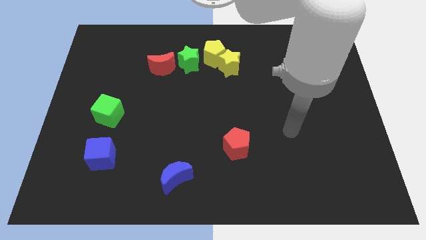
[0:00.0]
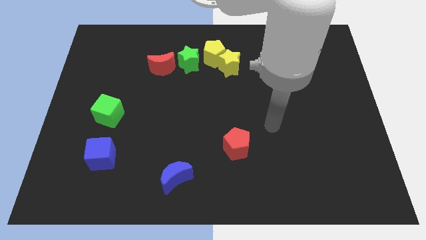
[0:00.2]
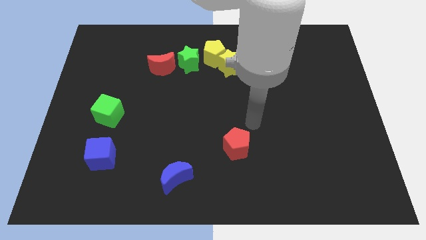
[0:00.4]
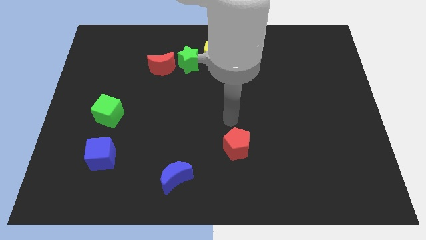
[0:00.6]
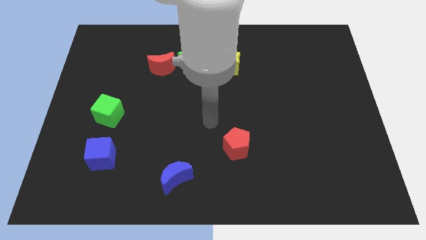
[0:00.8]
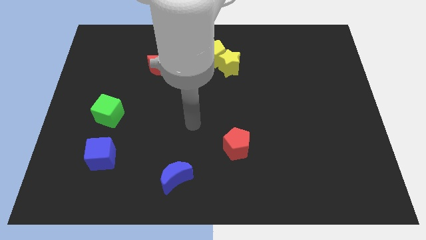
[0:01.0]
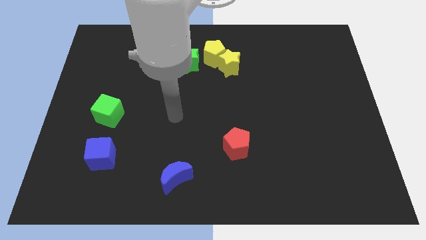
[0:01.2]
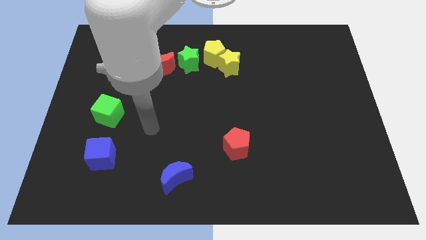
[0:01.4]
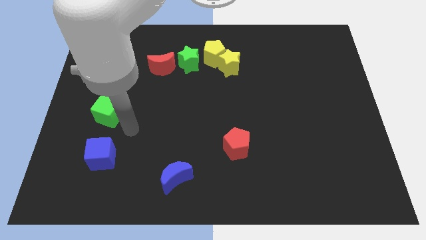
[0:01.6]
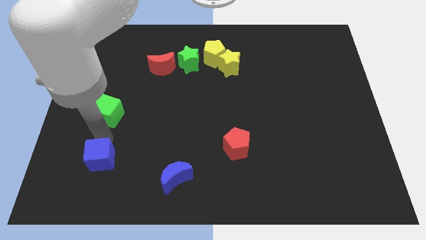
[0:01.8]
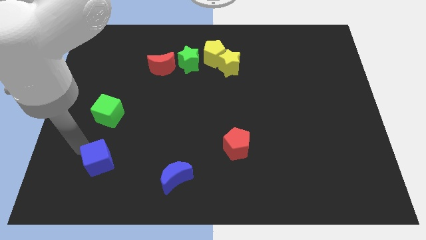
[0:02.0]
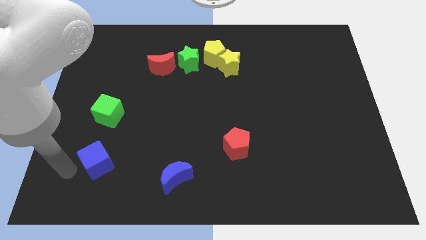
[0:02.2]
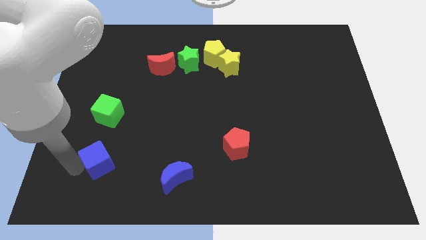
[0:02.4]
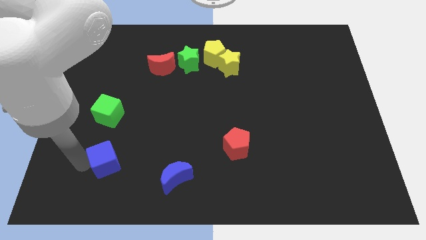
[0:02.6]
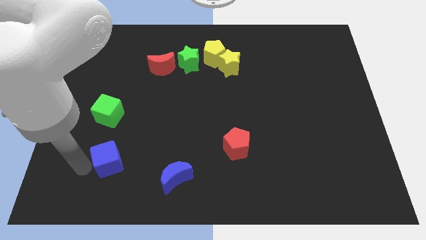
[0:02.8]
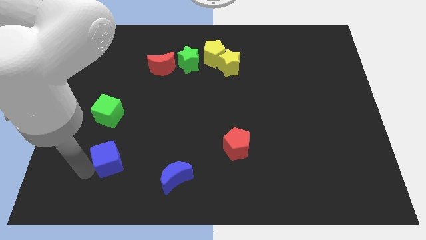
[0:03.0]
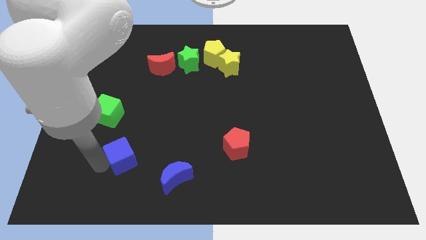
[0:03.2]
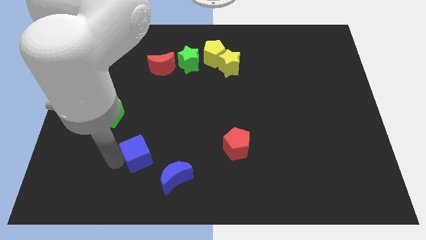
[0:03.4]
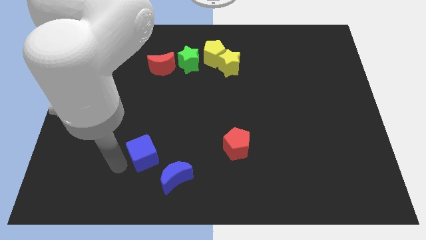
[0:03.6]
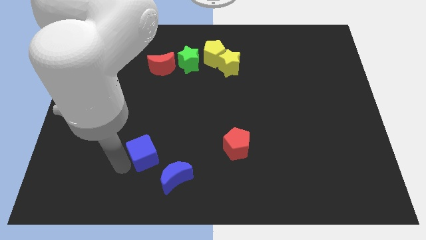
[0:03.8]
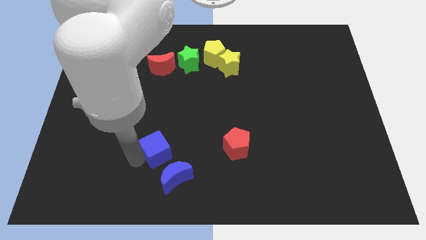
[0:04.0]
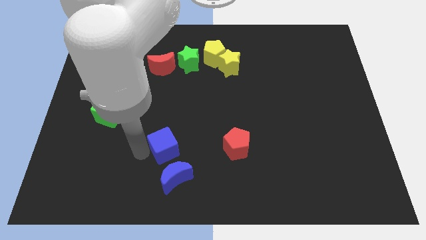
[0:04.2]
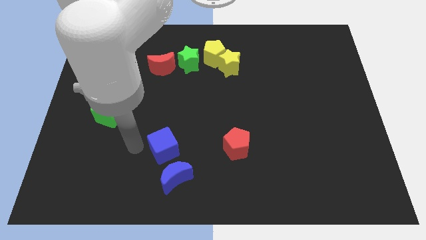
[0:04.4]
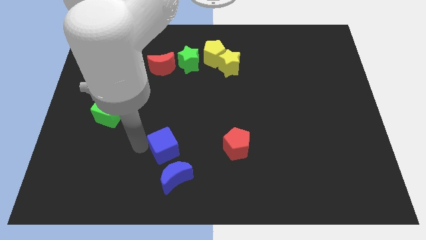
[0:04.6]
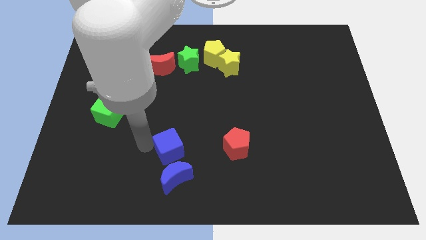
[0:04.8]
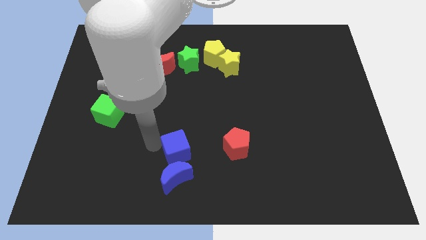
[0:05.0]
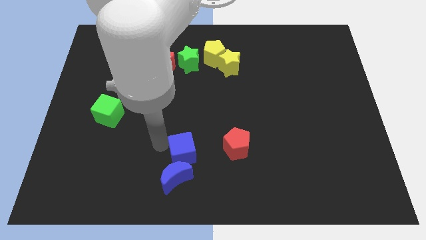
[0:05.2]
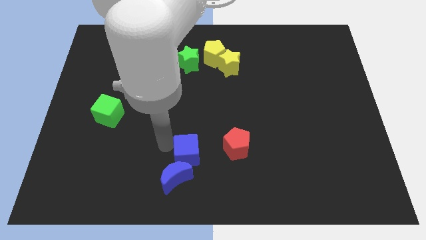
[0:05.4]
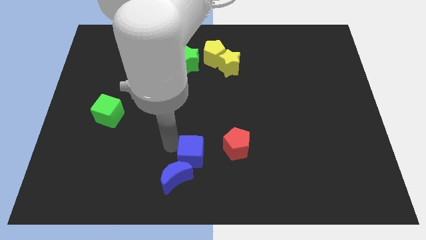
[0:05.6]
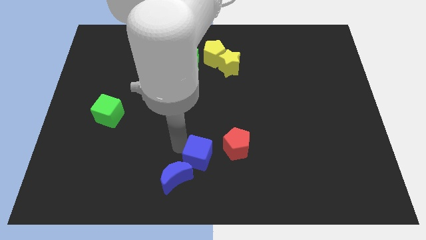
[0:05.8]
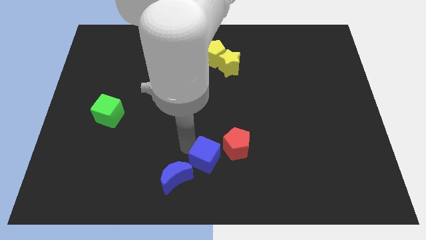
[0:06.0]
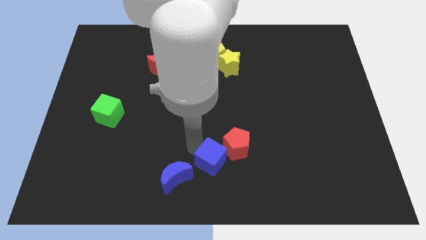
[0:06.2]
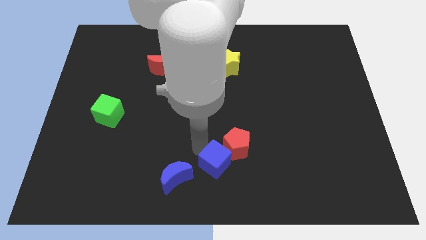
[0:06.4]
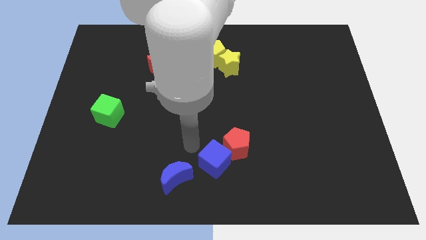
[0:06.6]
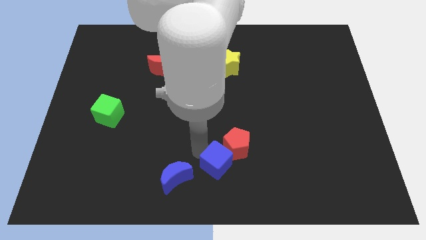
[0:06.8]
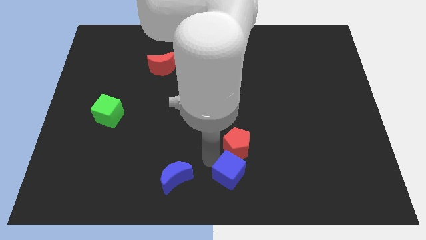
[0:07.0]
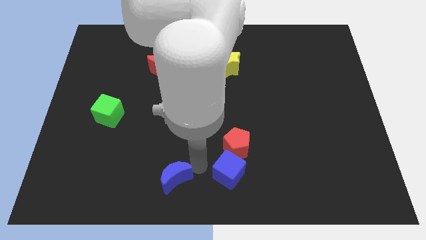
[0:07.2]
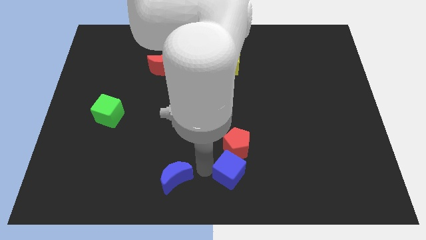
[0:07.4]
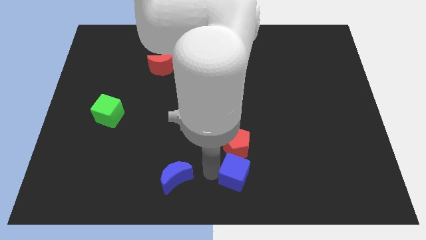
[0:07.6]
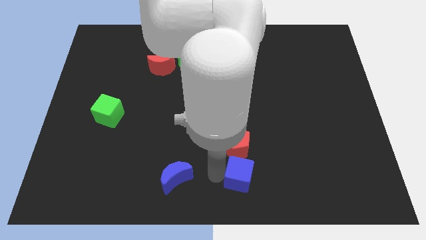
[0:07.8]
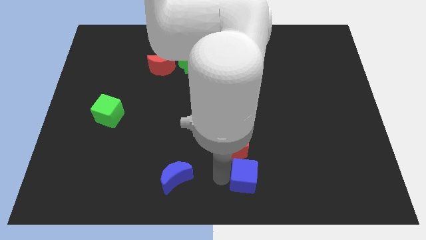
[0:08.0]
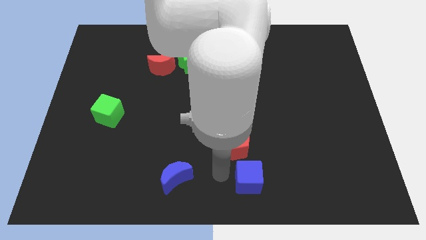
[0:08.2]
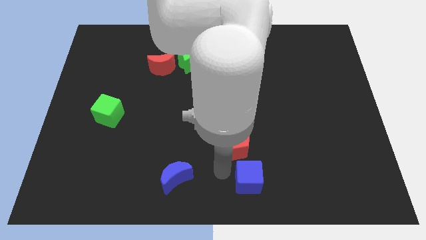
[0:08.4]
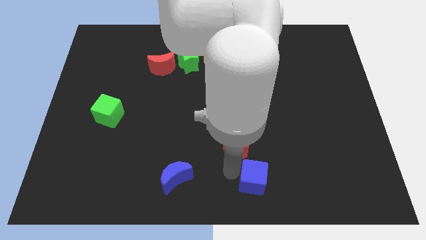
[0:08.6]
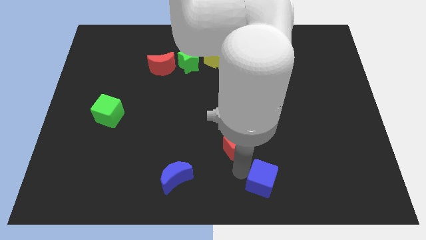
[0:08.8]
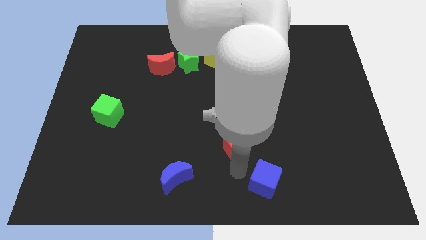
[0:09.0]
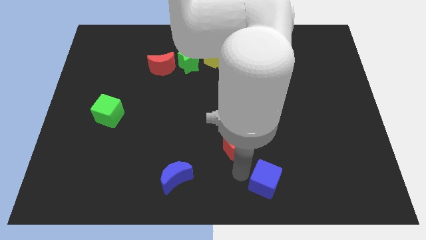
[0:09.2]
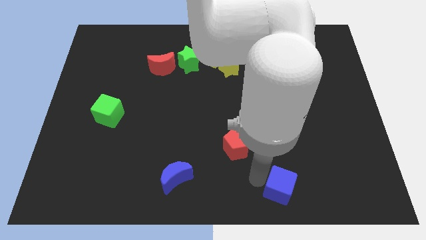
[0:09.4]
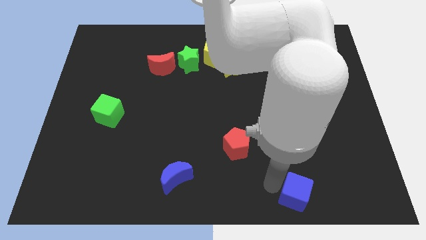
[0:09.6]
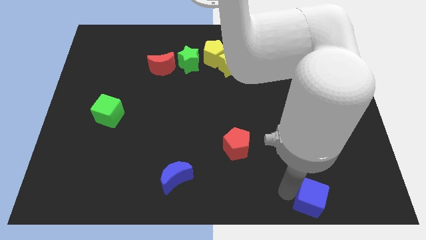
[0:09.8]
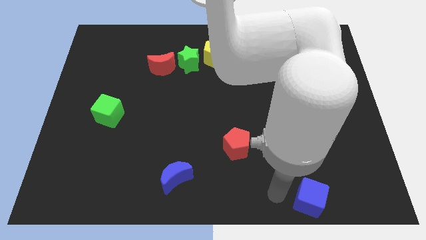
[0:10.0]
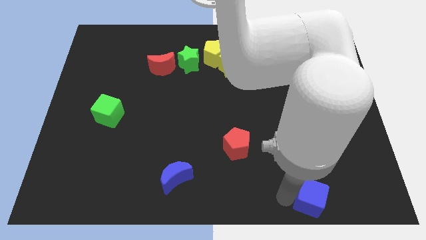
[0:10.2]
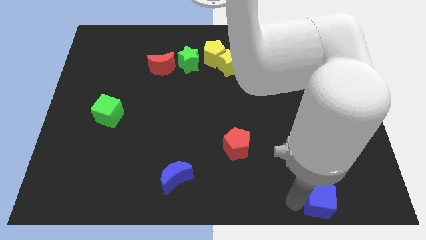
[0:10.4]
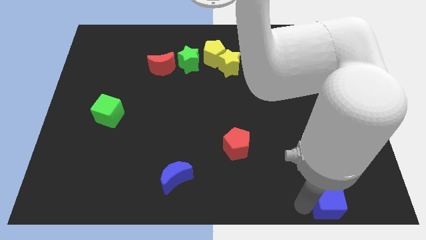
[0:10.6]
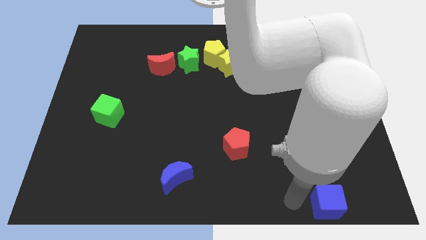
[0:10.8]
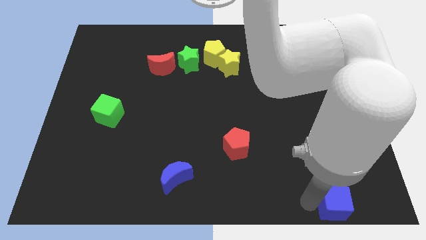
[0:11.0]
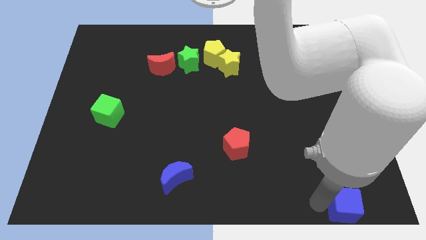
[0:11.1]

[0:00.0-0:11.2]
put the blue cube to the lower right corner
